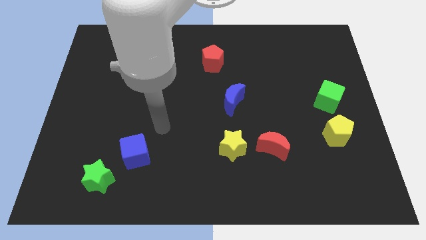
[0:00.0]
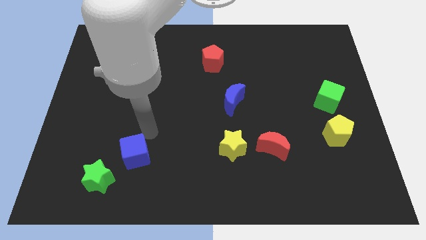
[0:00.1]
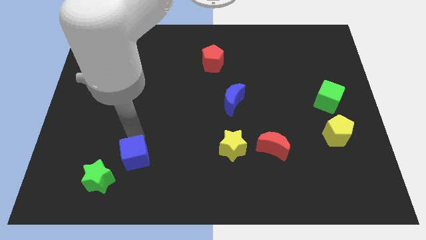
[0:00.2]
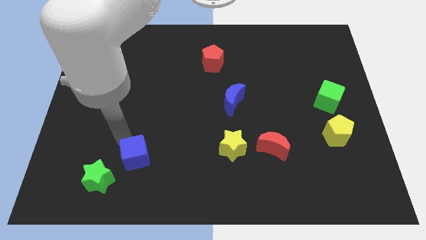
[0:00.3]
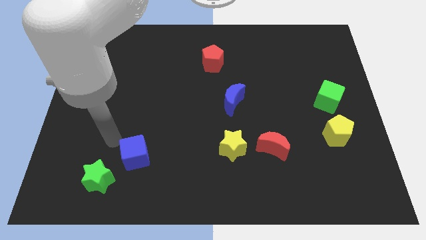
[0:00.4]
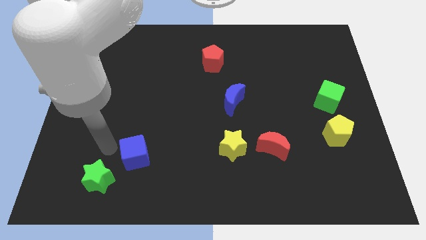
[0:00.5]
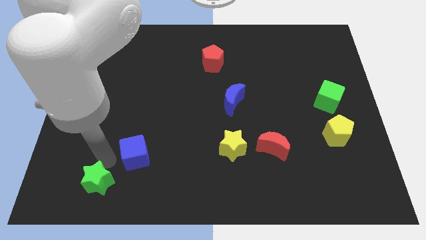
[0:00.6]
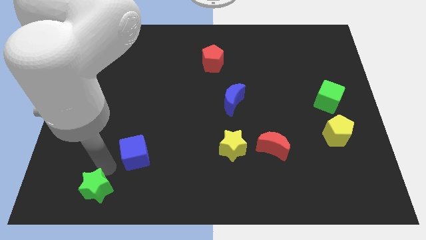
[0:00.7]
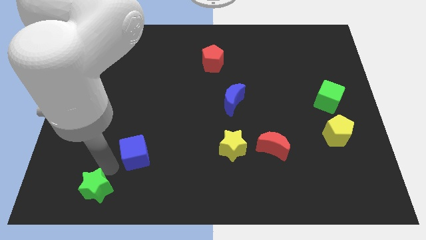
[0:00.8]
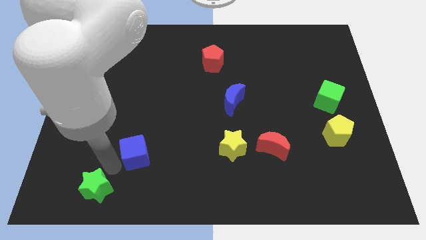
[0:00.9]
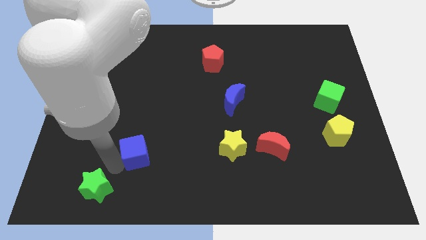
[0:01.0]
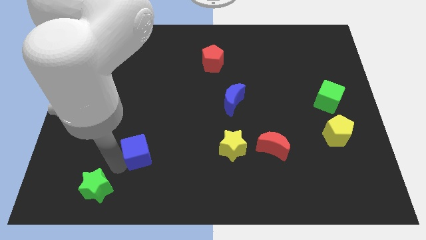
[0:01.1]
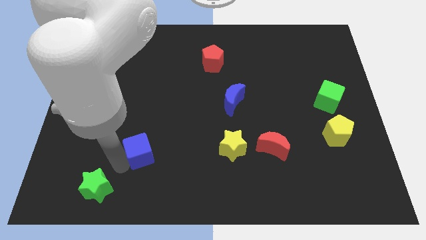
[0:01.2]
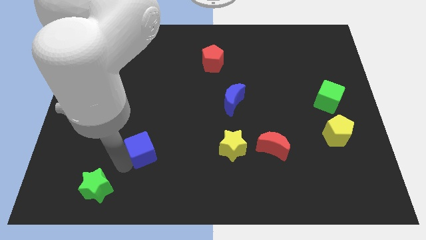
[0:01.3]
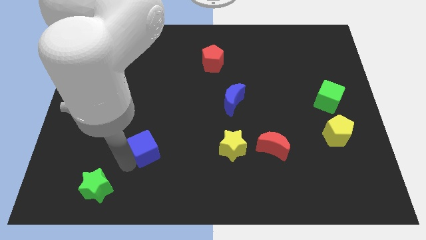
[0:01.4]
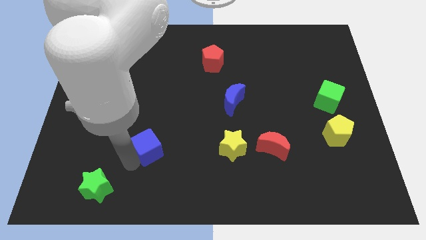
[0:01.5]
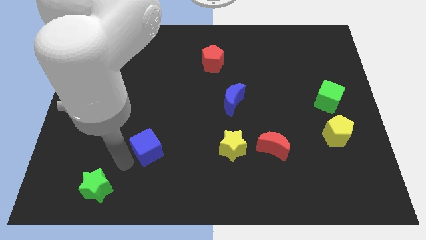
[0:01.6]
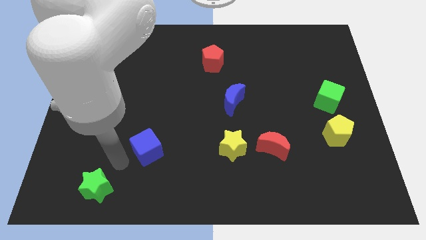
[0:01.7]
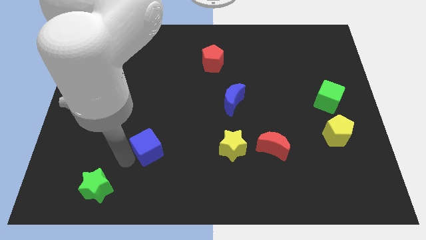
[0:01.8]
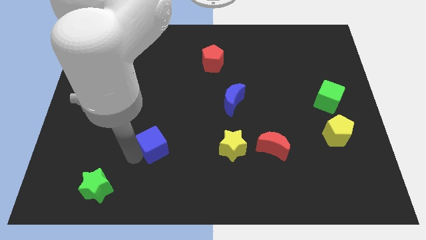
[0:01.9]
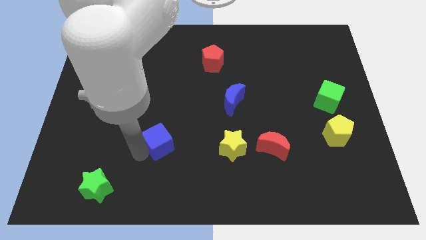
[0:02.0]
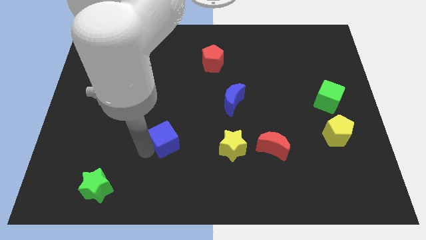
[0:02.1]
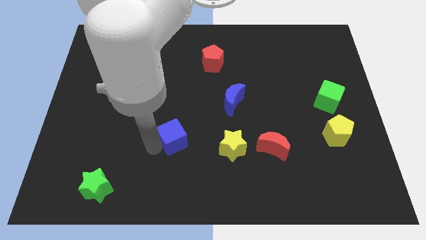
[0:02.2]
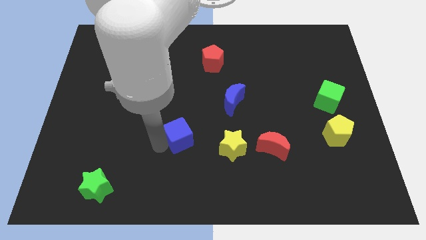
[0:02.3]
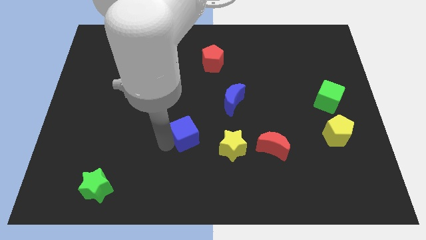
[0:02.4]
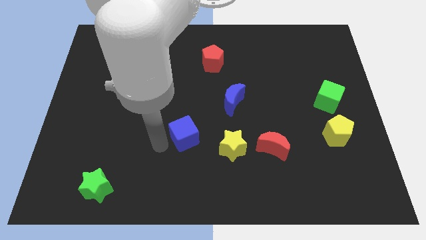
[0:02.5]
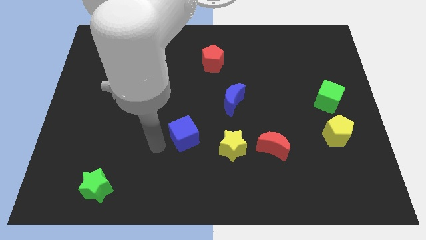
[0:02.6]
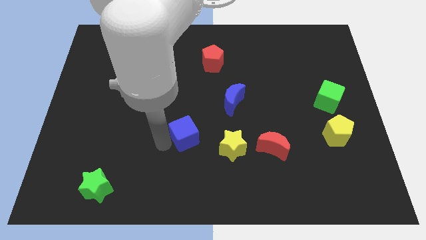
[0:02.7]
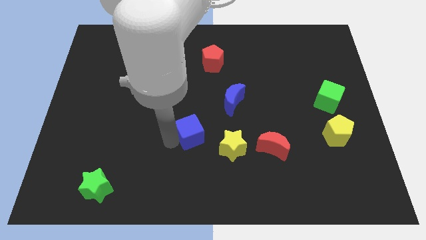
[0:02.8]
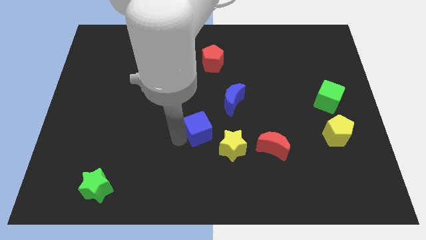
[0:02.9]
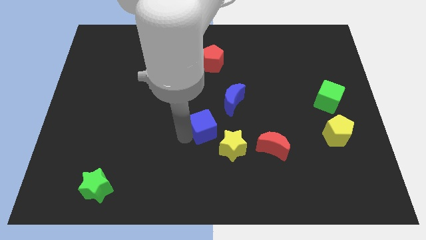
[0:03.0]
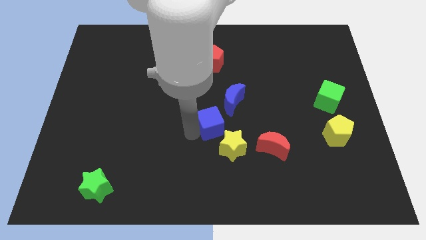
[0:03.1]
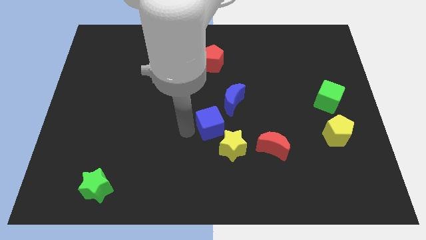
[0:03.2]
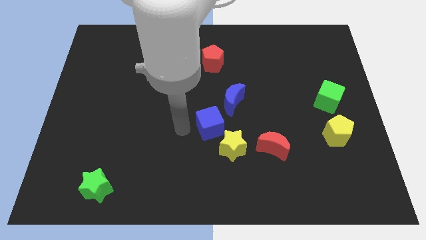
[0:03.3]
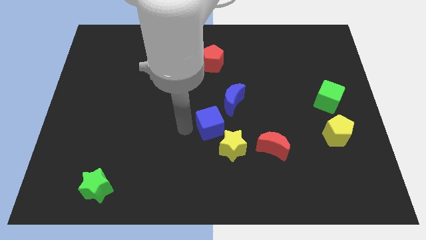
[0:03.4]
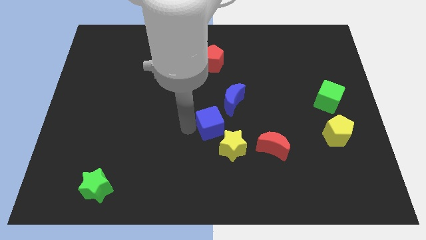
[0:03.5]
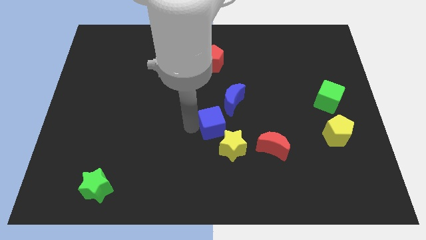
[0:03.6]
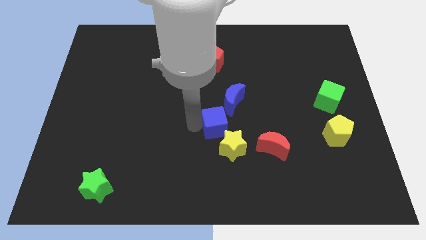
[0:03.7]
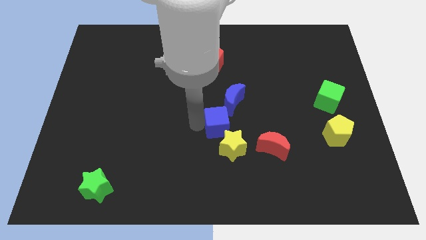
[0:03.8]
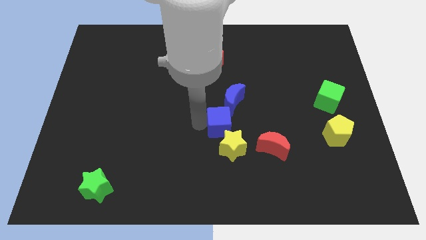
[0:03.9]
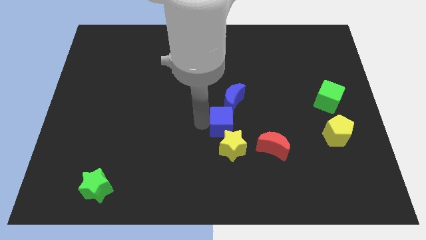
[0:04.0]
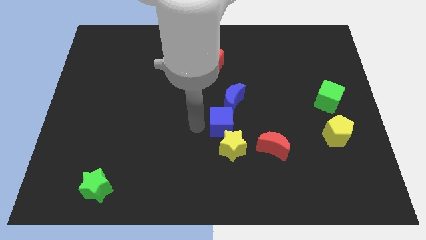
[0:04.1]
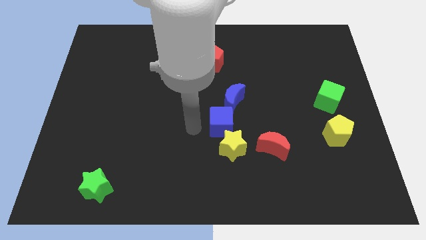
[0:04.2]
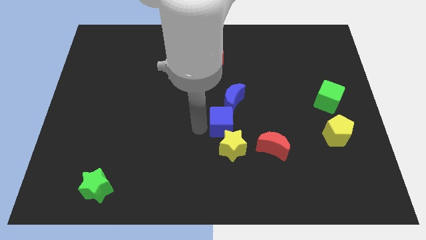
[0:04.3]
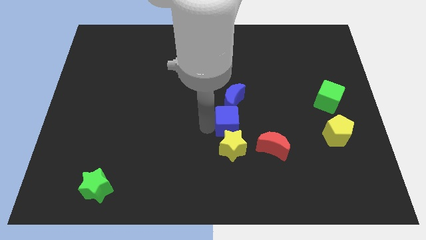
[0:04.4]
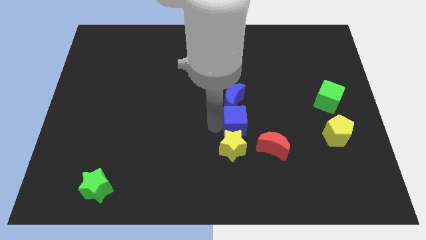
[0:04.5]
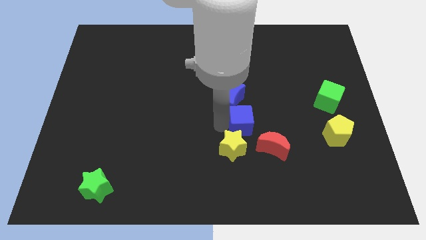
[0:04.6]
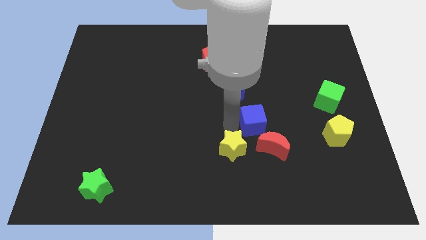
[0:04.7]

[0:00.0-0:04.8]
slide the blue cube above the red moon

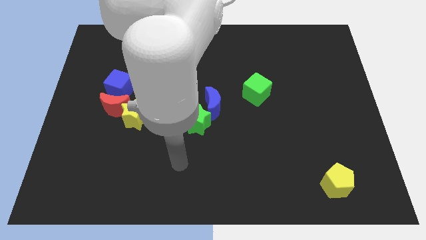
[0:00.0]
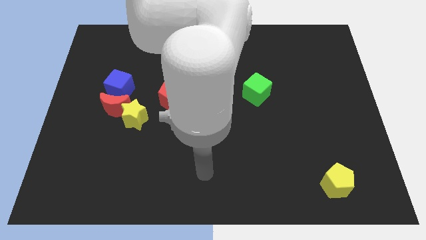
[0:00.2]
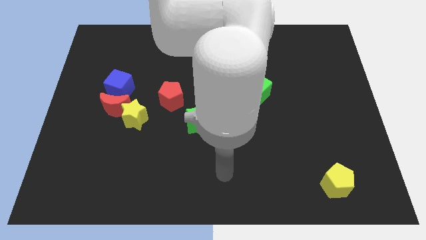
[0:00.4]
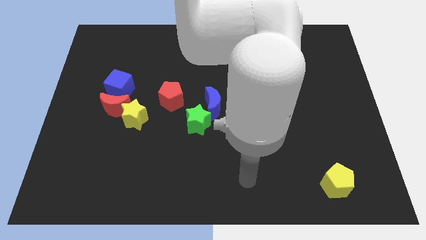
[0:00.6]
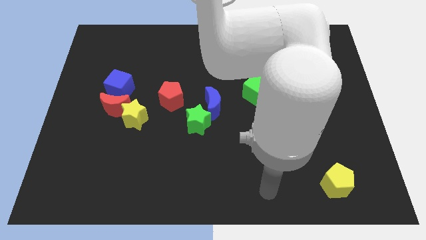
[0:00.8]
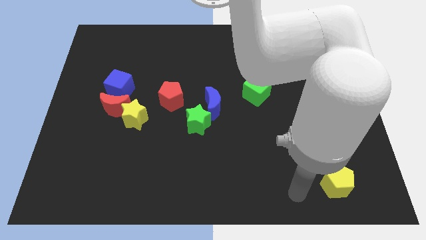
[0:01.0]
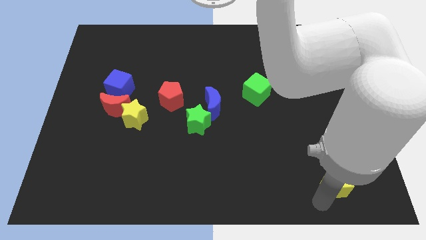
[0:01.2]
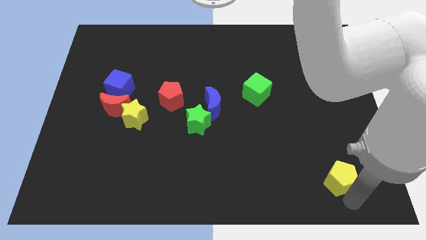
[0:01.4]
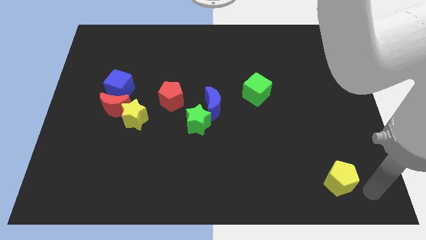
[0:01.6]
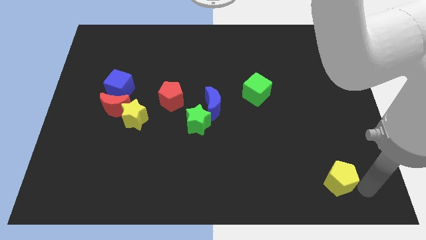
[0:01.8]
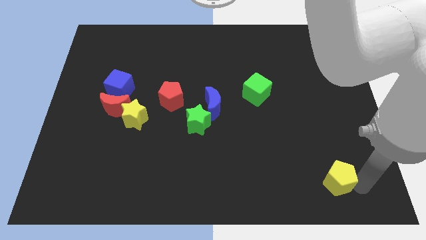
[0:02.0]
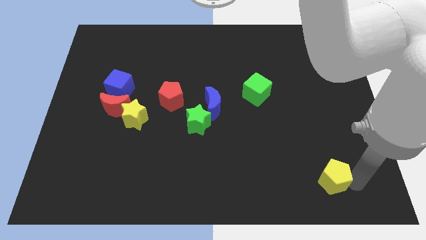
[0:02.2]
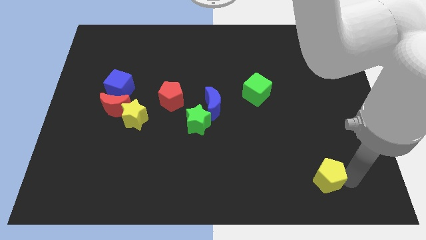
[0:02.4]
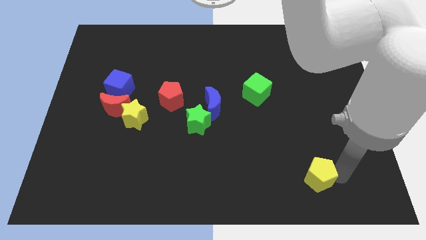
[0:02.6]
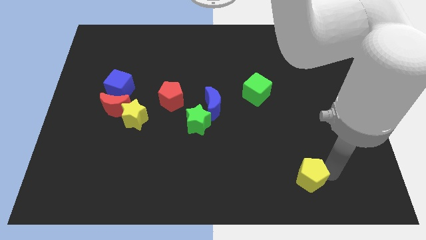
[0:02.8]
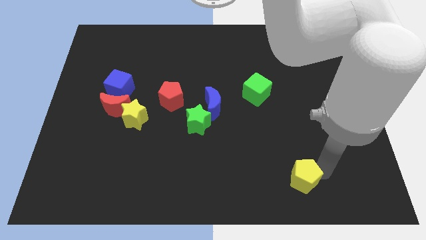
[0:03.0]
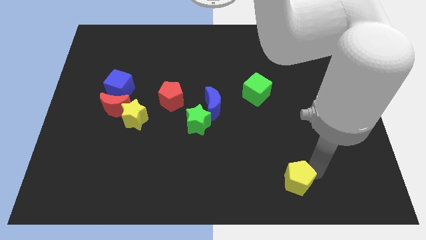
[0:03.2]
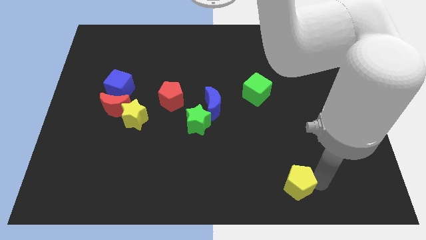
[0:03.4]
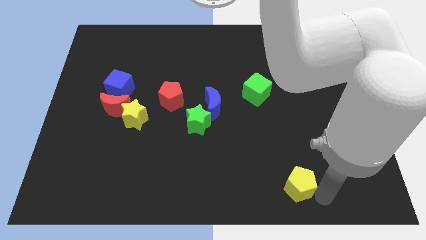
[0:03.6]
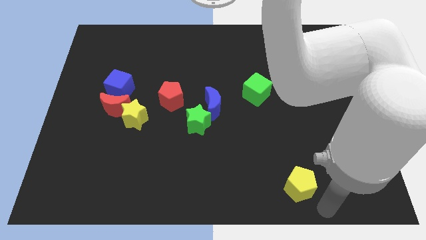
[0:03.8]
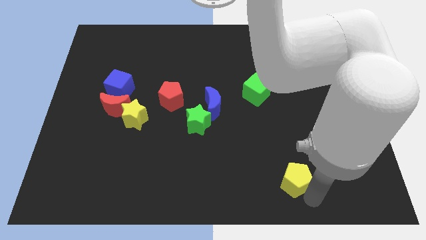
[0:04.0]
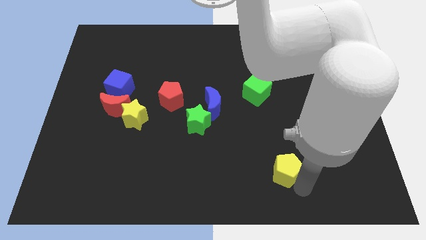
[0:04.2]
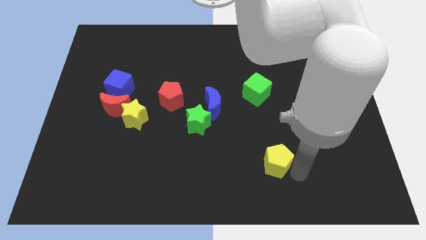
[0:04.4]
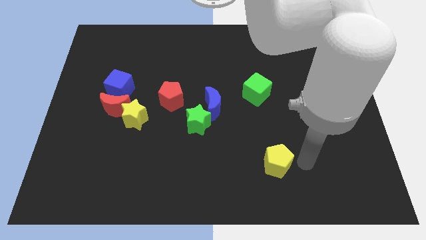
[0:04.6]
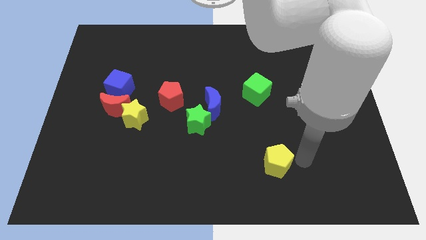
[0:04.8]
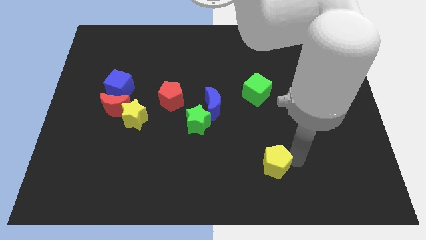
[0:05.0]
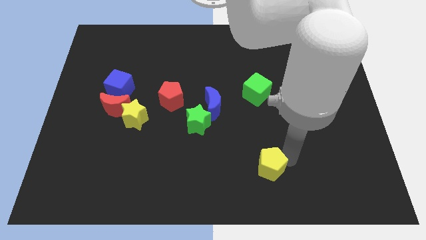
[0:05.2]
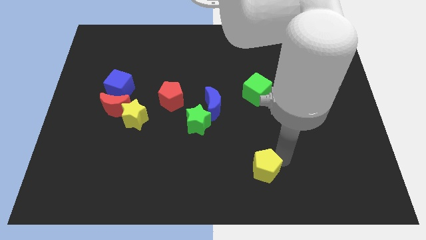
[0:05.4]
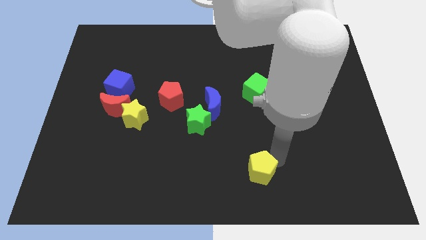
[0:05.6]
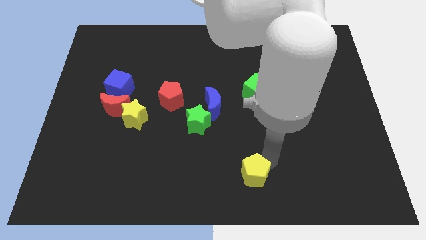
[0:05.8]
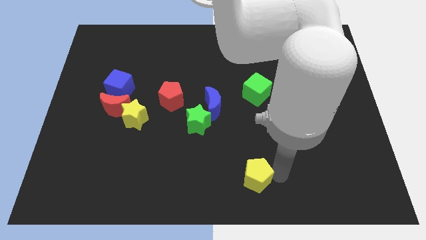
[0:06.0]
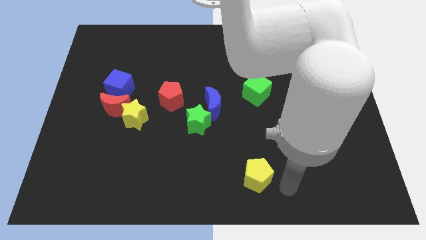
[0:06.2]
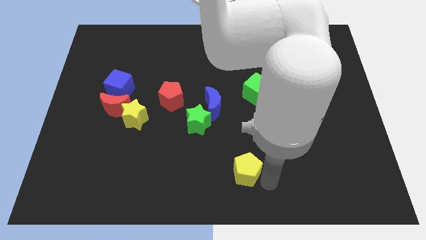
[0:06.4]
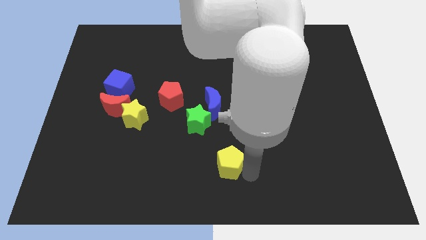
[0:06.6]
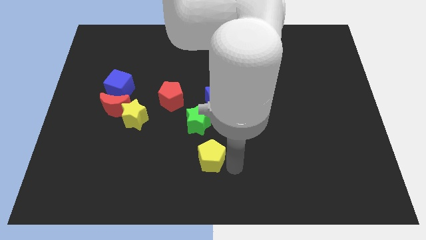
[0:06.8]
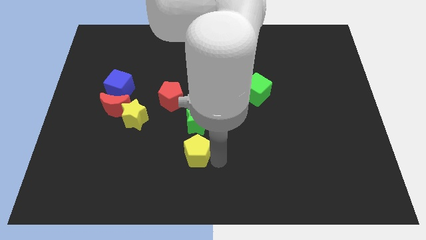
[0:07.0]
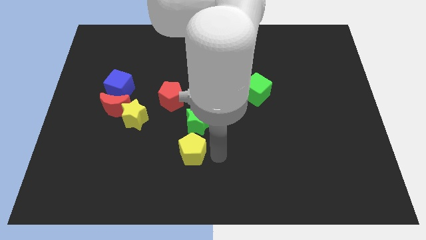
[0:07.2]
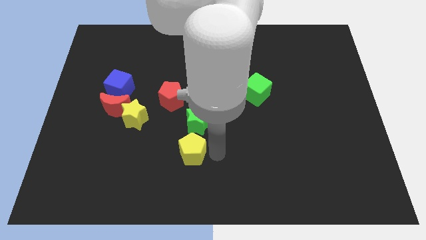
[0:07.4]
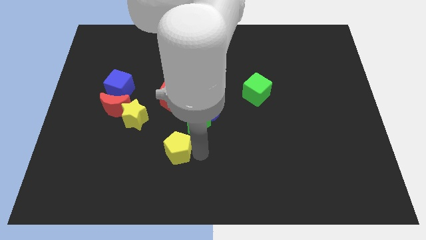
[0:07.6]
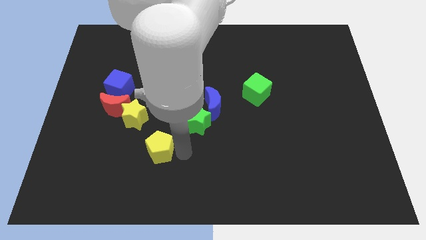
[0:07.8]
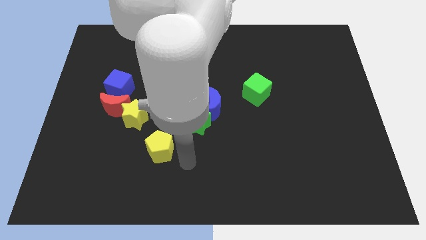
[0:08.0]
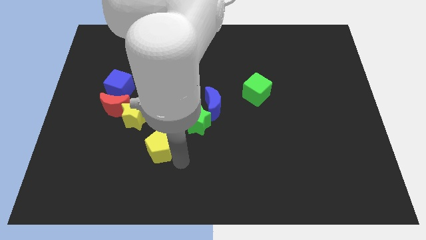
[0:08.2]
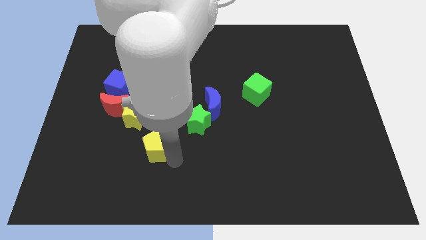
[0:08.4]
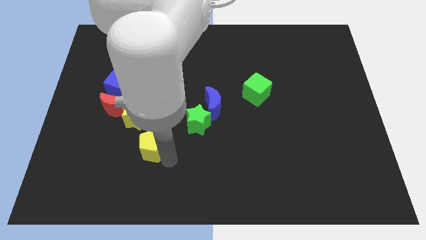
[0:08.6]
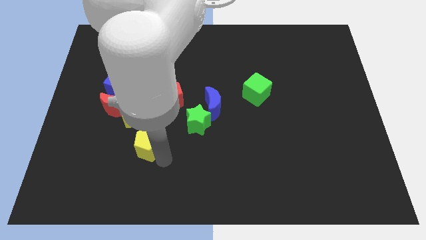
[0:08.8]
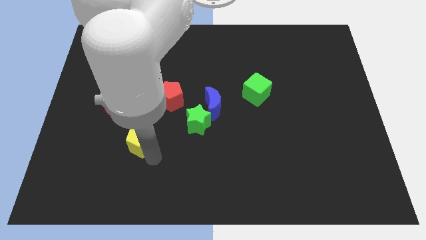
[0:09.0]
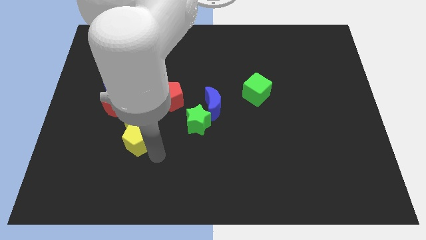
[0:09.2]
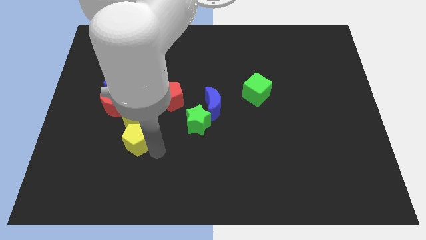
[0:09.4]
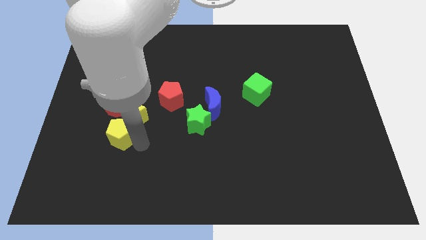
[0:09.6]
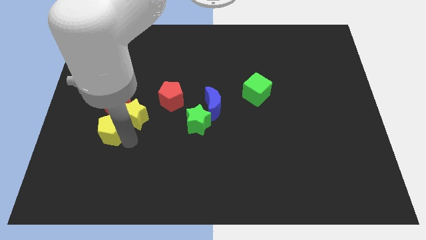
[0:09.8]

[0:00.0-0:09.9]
put the yellow pentagon just left of the yellow star
